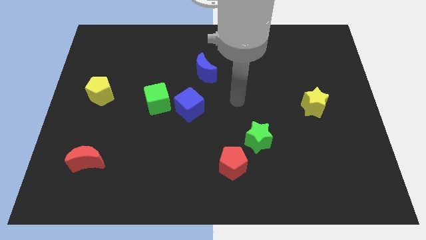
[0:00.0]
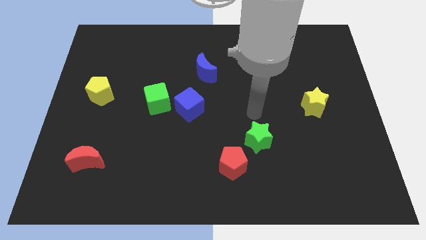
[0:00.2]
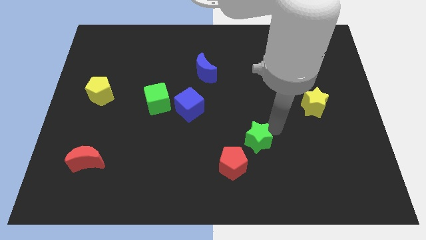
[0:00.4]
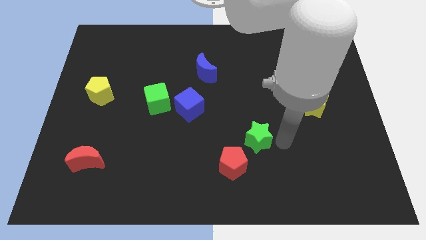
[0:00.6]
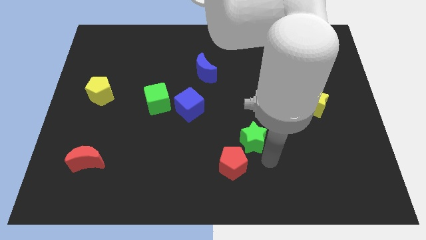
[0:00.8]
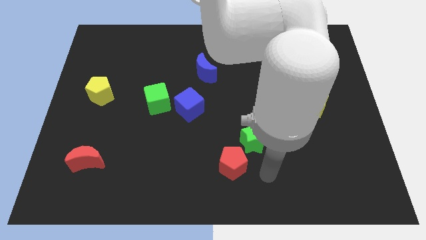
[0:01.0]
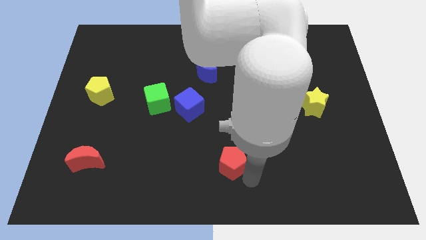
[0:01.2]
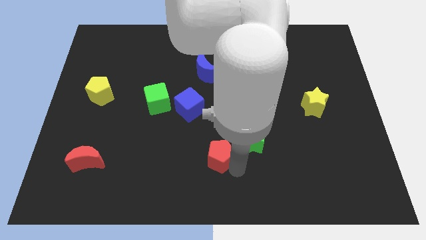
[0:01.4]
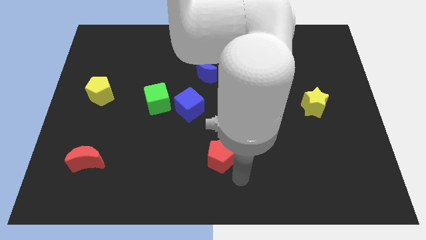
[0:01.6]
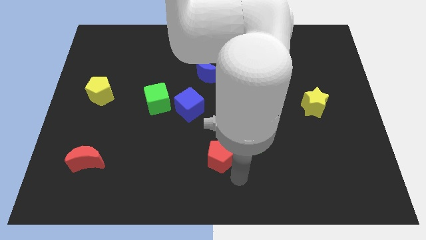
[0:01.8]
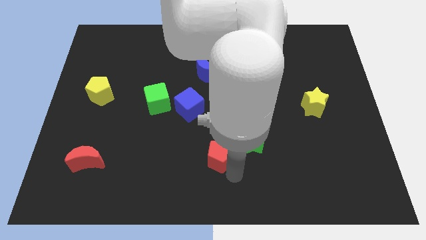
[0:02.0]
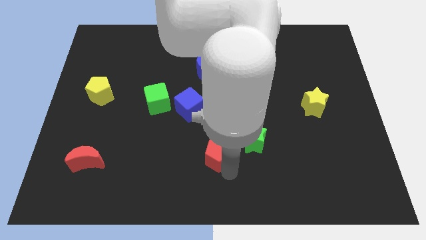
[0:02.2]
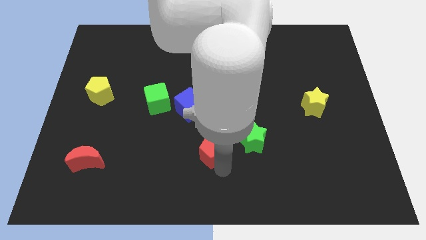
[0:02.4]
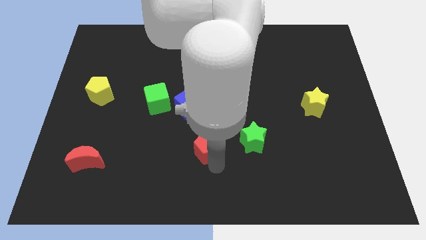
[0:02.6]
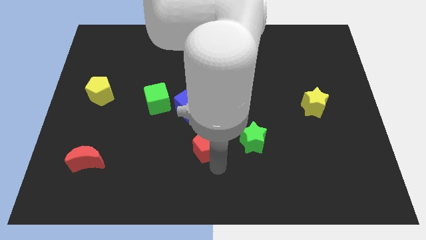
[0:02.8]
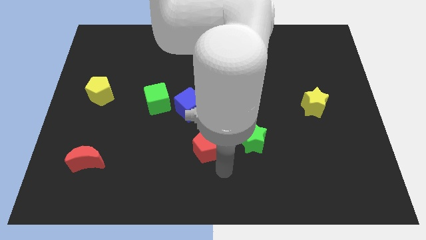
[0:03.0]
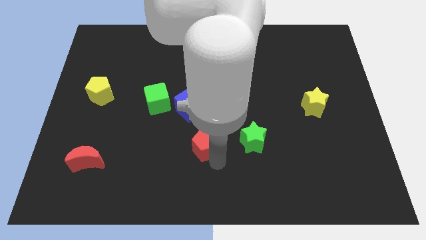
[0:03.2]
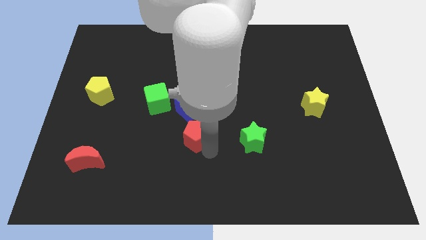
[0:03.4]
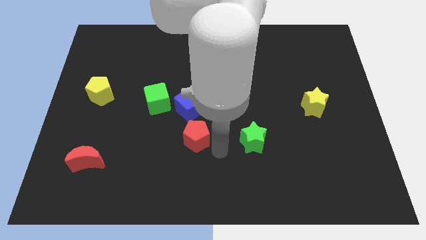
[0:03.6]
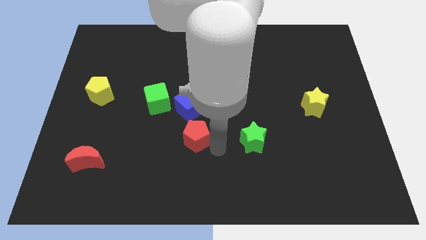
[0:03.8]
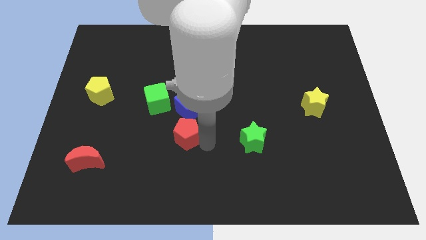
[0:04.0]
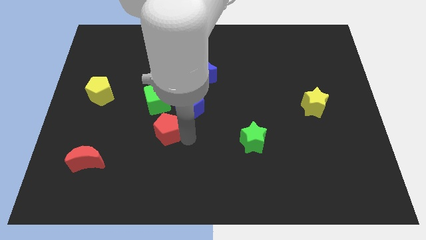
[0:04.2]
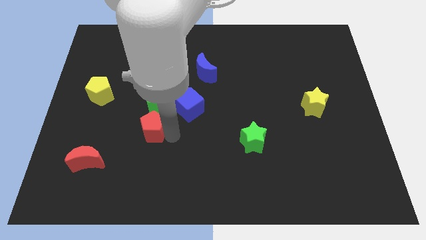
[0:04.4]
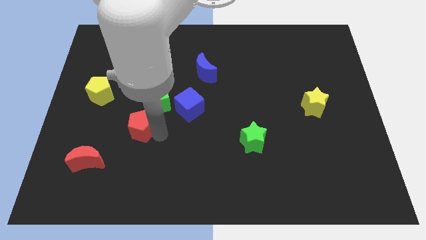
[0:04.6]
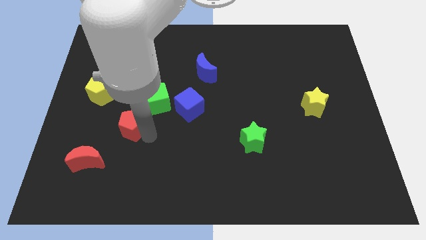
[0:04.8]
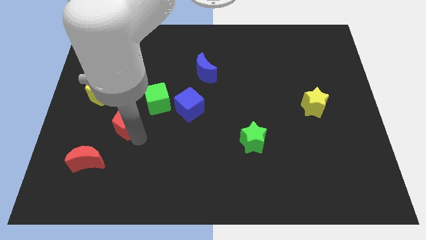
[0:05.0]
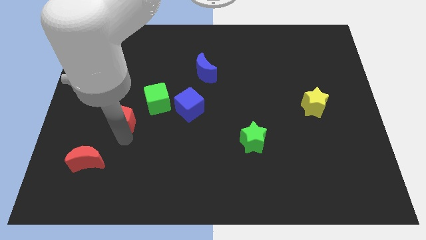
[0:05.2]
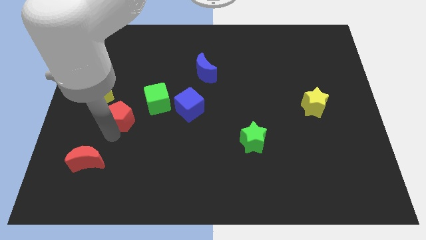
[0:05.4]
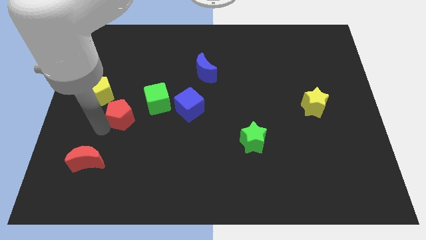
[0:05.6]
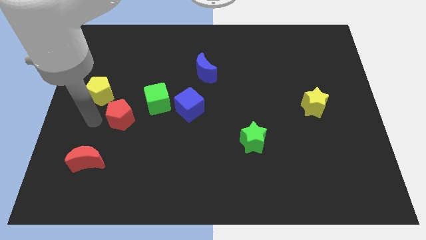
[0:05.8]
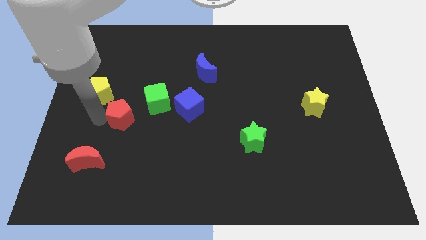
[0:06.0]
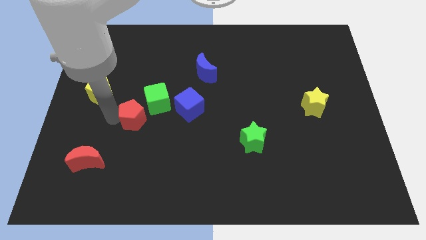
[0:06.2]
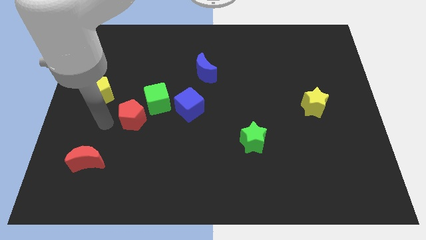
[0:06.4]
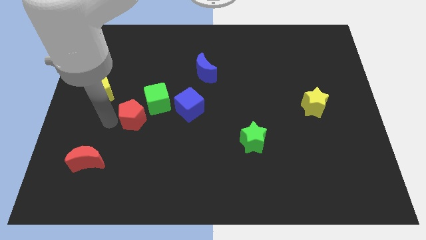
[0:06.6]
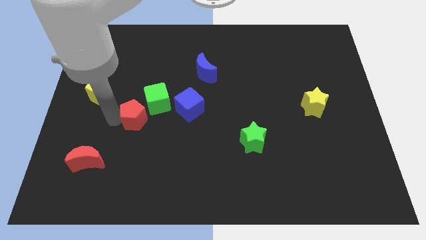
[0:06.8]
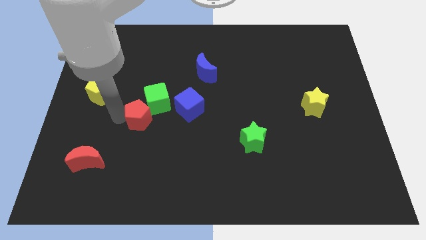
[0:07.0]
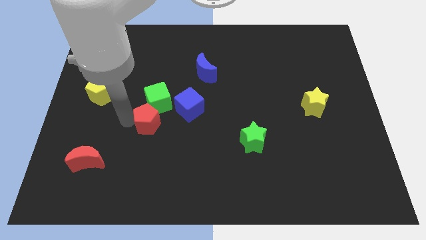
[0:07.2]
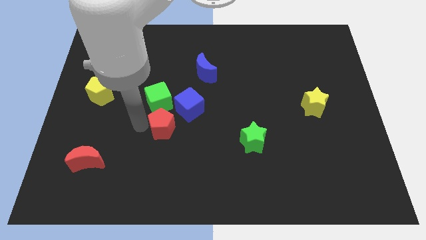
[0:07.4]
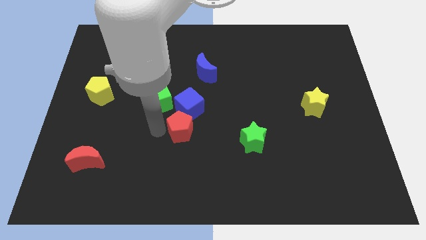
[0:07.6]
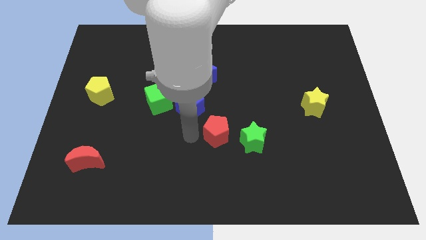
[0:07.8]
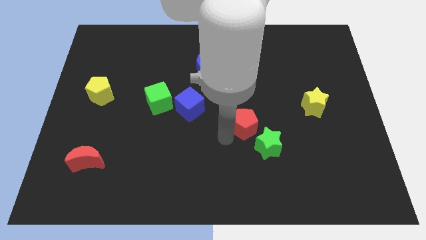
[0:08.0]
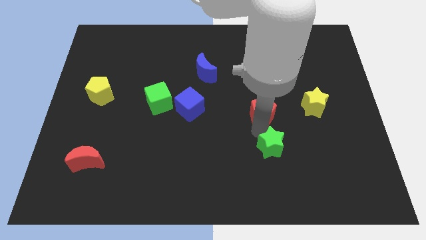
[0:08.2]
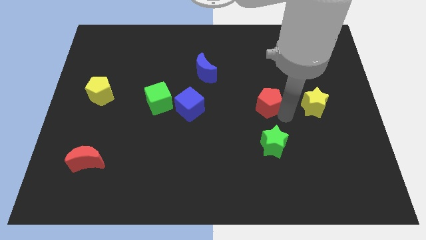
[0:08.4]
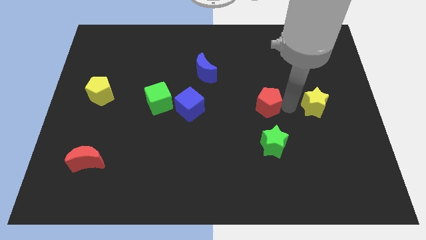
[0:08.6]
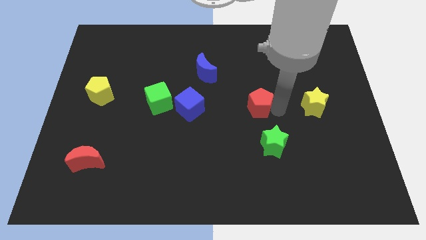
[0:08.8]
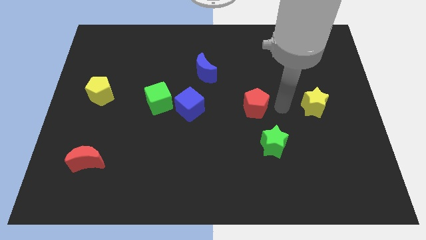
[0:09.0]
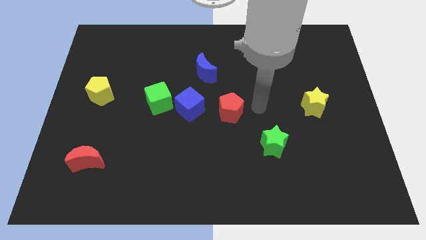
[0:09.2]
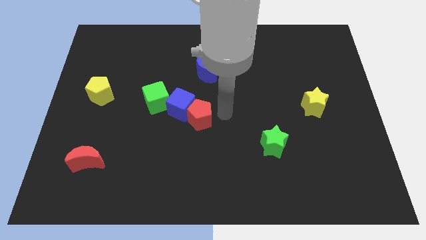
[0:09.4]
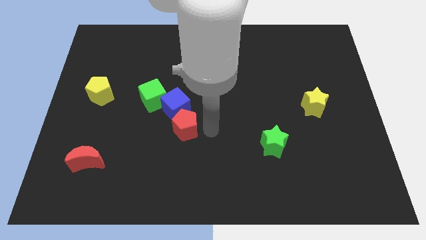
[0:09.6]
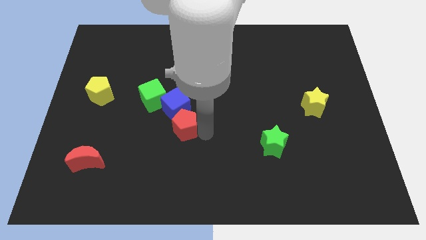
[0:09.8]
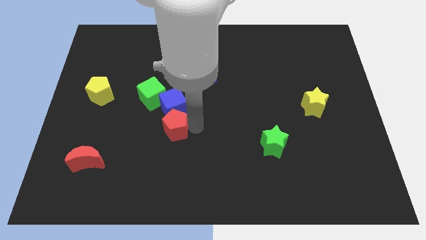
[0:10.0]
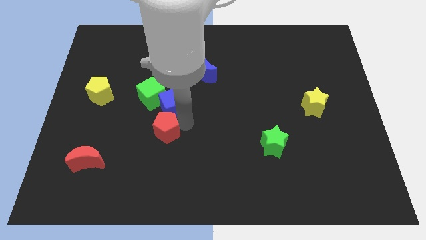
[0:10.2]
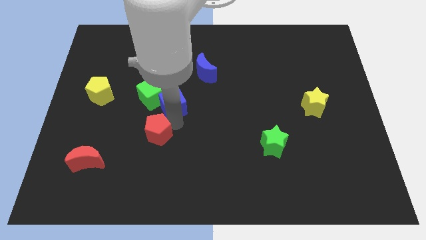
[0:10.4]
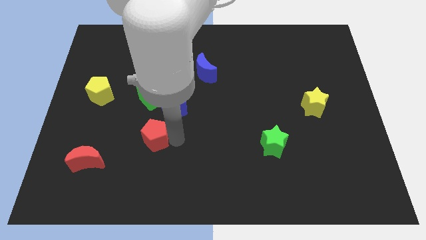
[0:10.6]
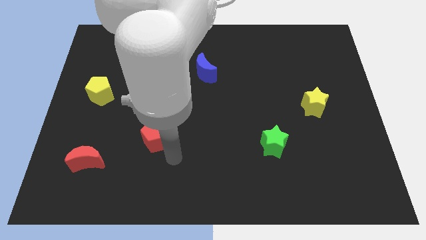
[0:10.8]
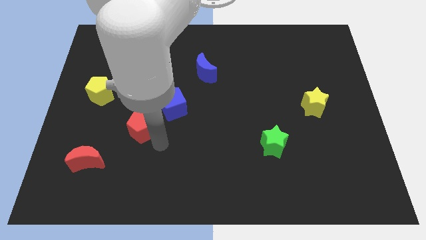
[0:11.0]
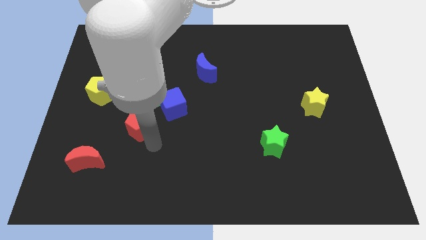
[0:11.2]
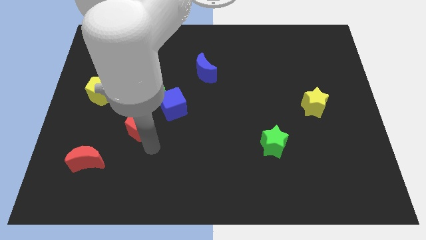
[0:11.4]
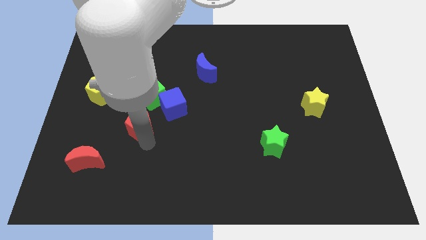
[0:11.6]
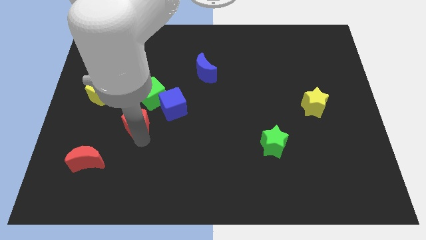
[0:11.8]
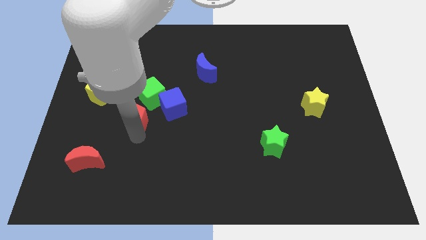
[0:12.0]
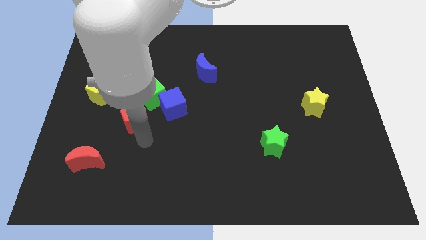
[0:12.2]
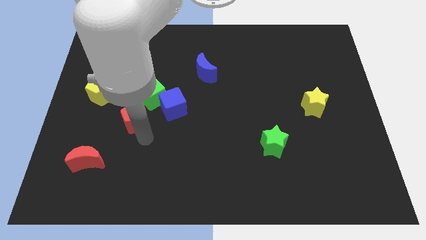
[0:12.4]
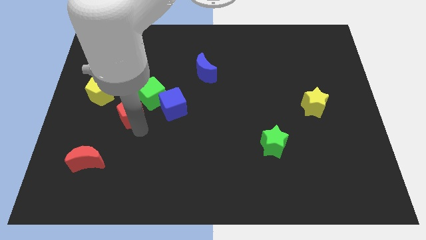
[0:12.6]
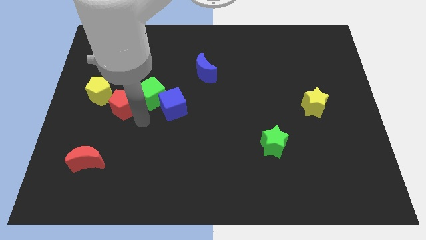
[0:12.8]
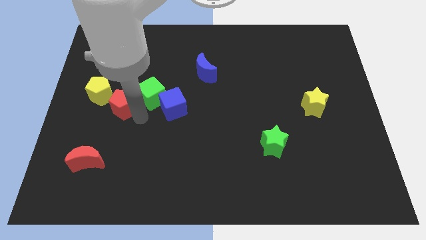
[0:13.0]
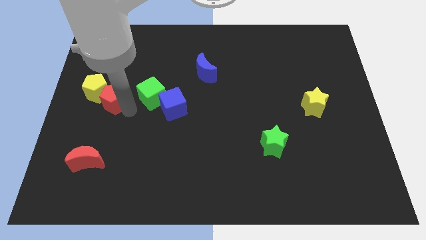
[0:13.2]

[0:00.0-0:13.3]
slide the red pentagon towards the yellow pentagon

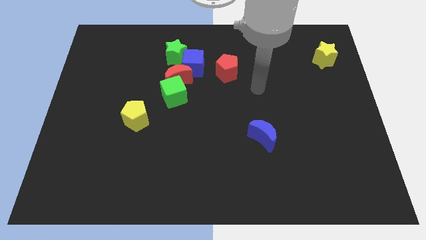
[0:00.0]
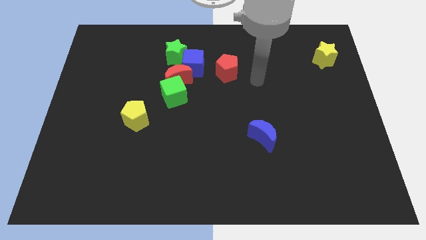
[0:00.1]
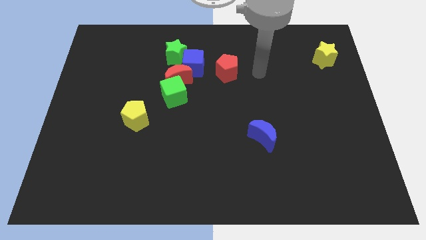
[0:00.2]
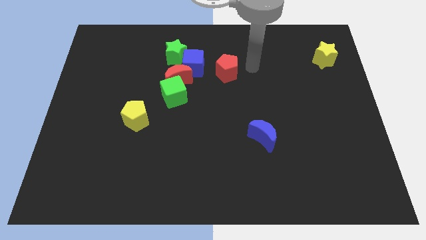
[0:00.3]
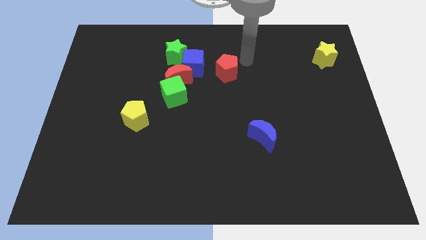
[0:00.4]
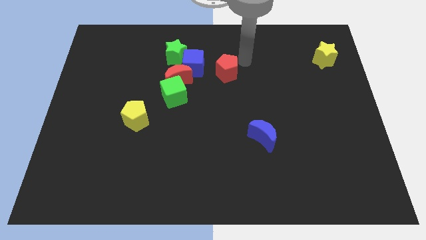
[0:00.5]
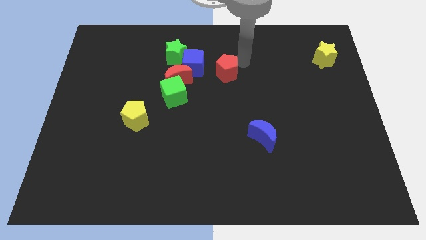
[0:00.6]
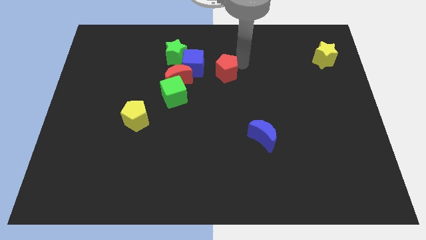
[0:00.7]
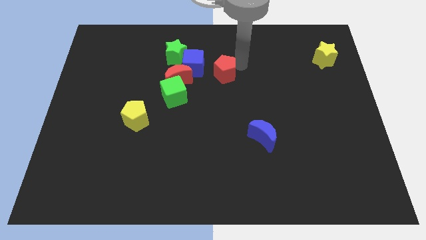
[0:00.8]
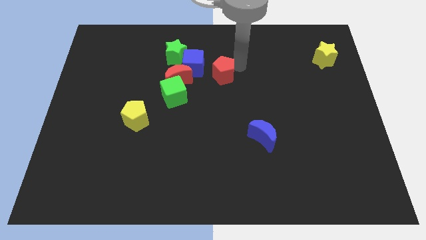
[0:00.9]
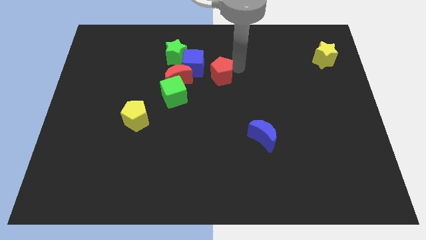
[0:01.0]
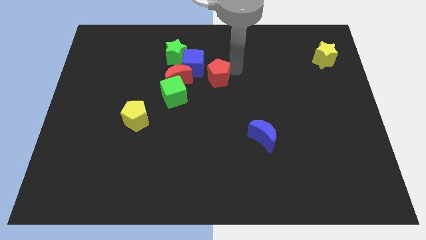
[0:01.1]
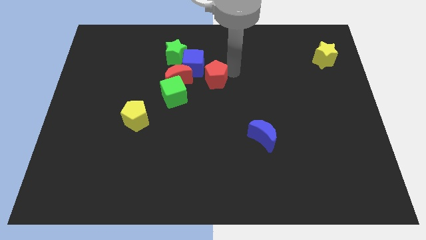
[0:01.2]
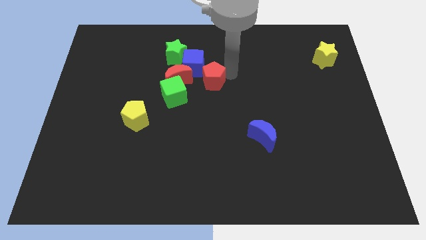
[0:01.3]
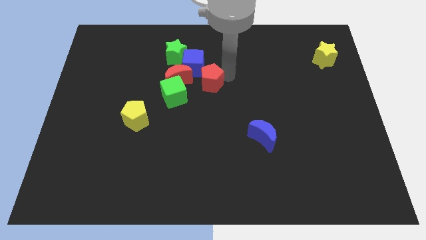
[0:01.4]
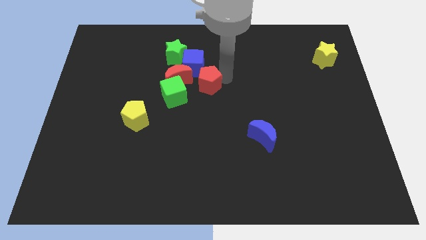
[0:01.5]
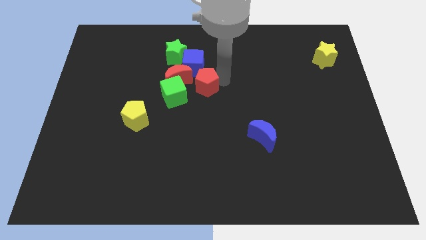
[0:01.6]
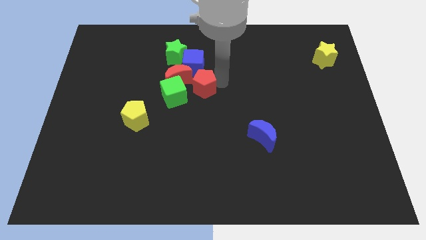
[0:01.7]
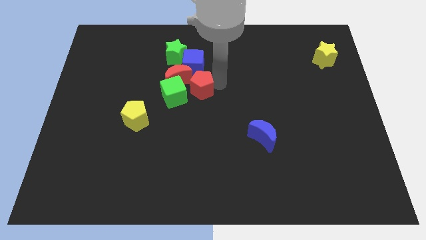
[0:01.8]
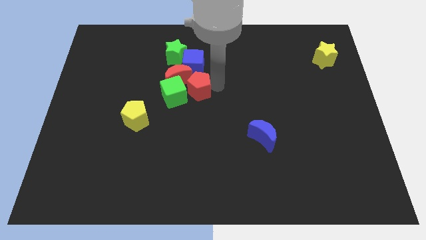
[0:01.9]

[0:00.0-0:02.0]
move the red pentagon to the red moon
